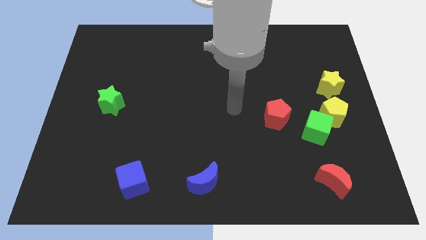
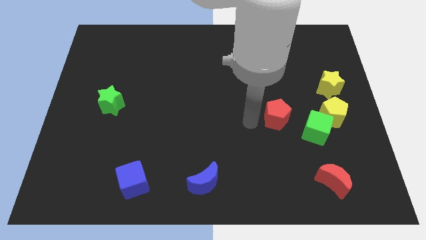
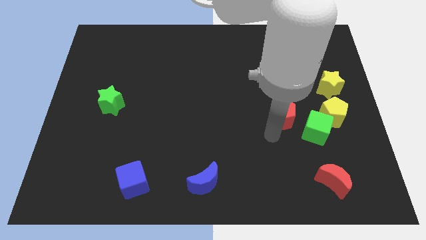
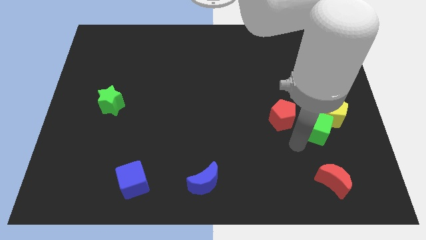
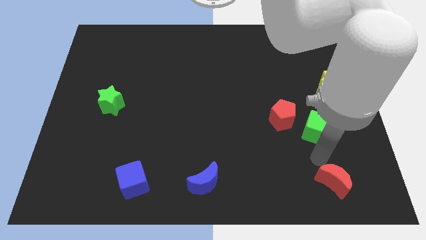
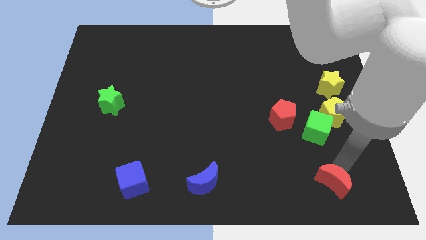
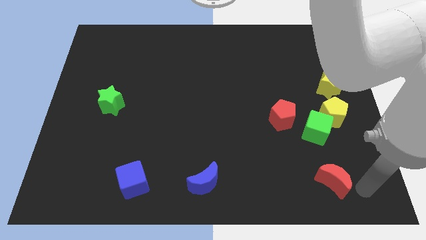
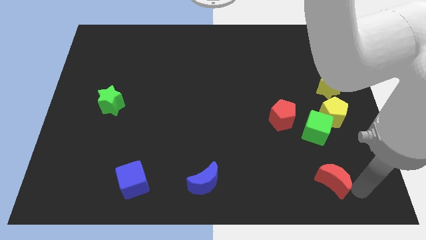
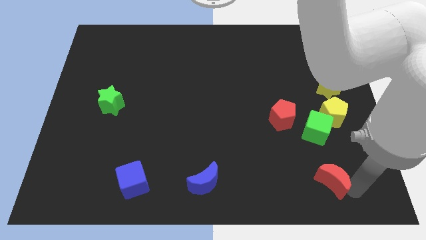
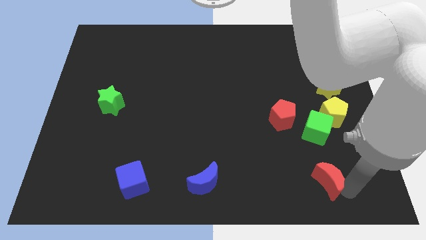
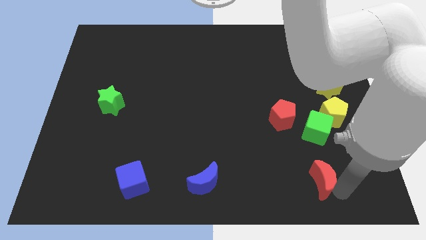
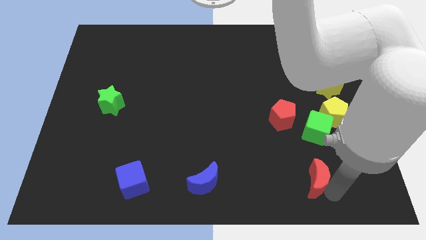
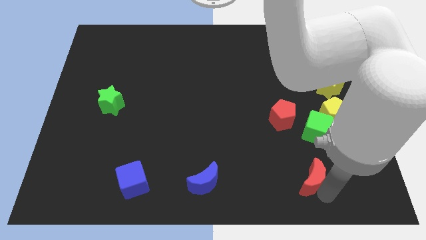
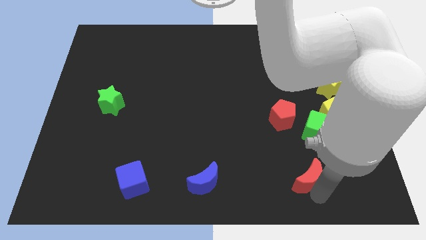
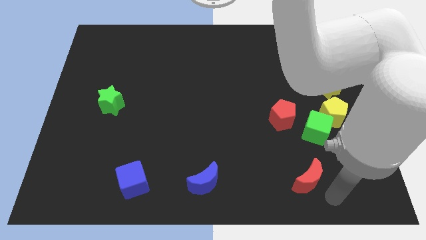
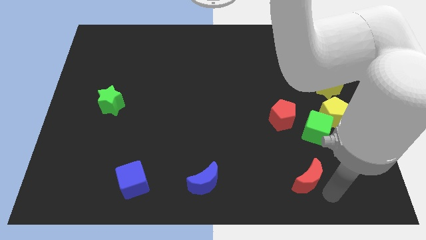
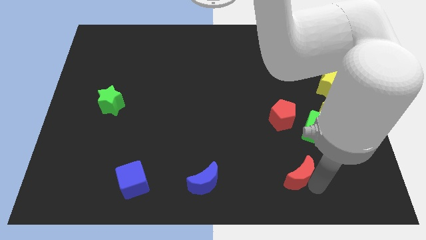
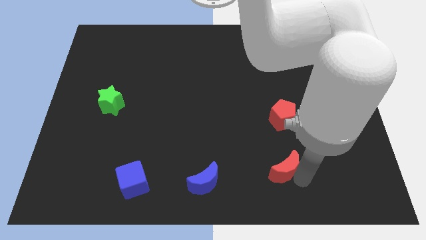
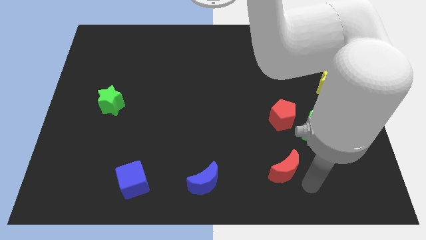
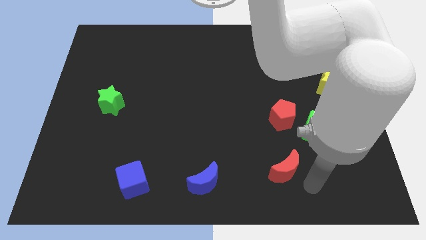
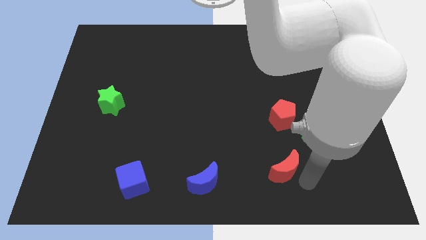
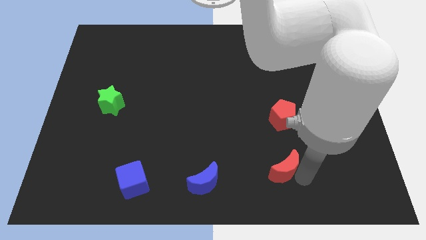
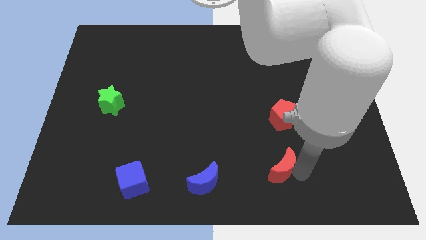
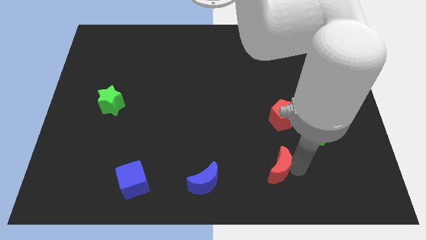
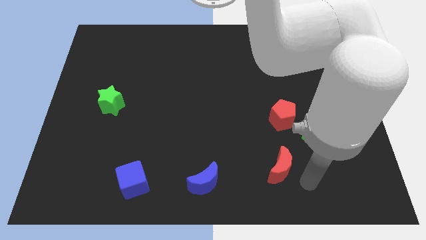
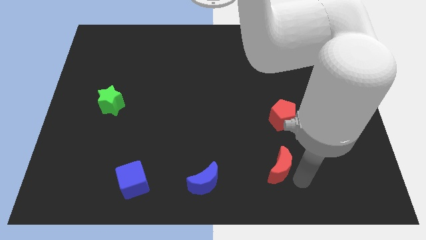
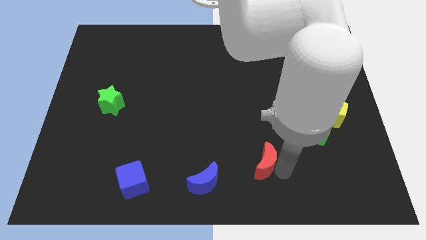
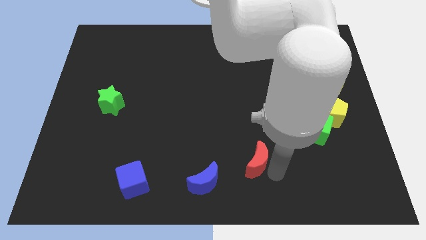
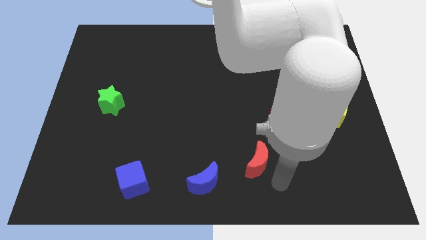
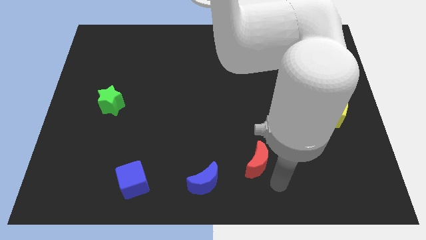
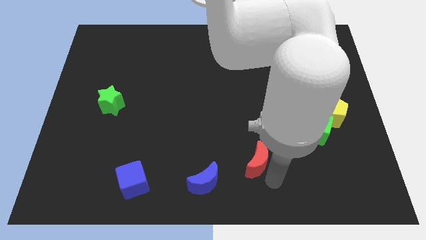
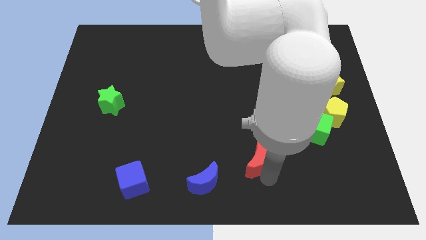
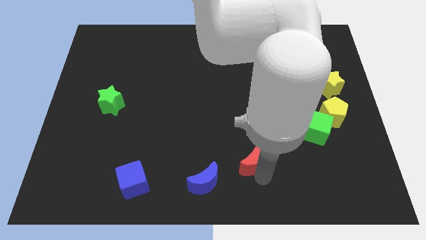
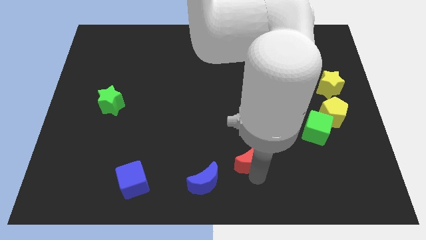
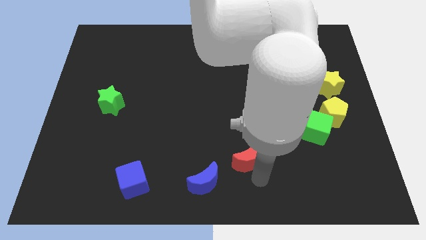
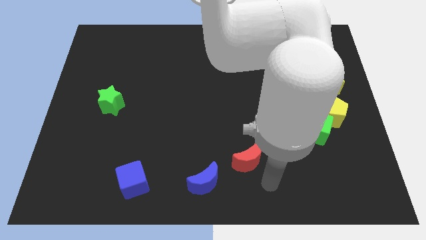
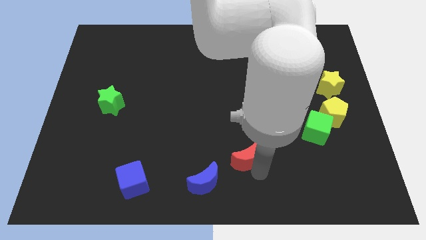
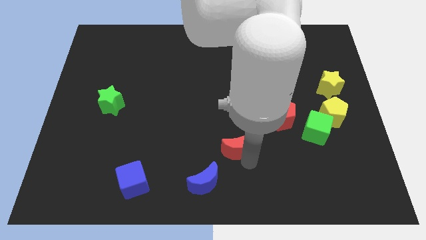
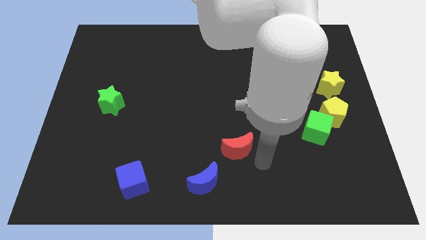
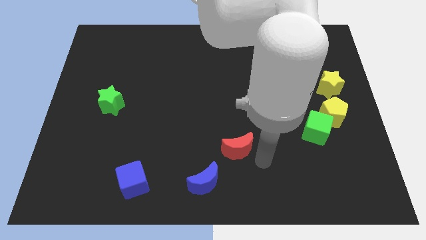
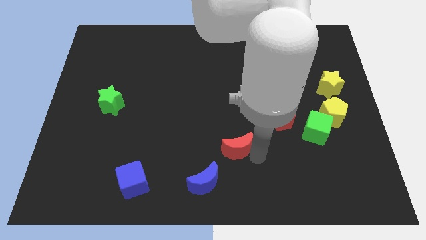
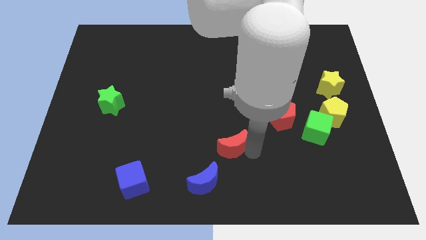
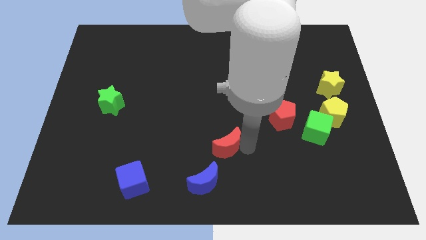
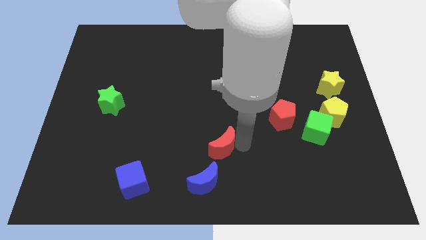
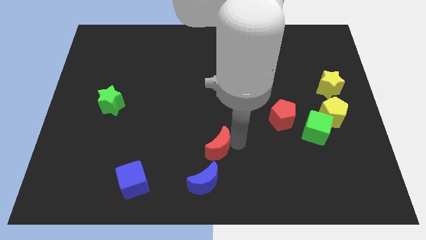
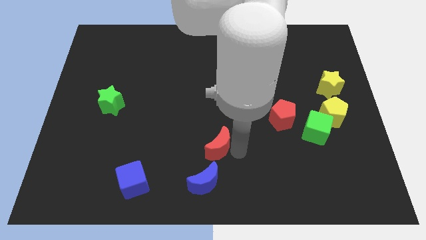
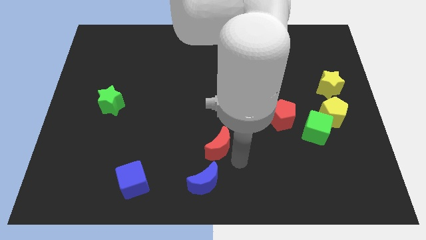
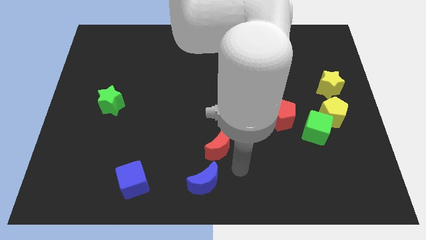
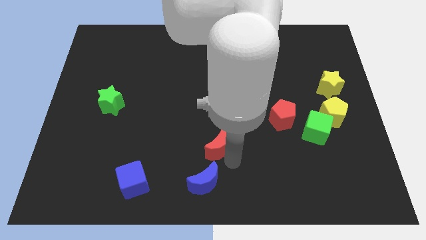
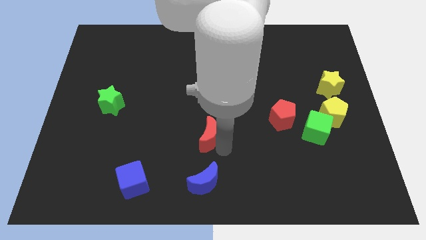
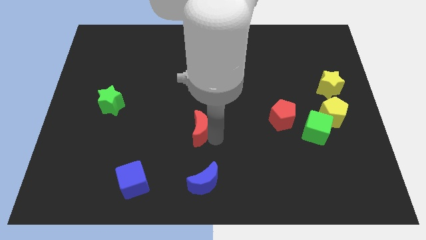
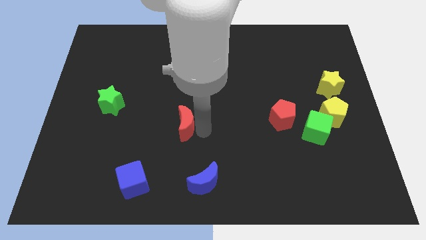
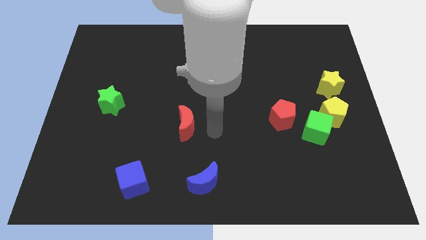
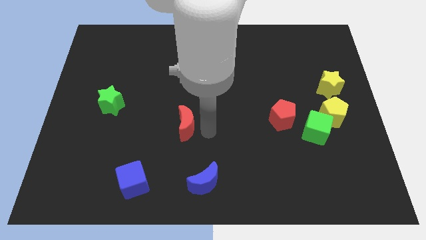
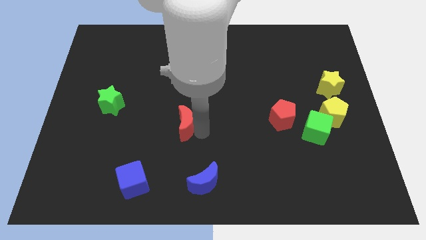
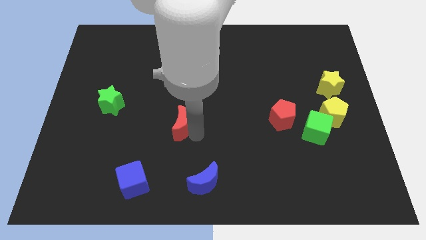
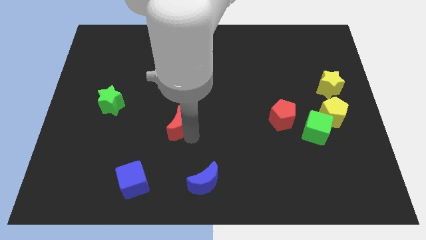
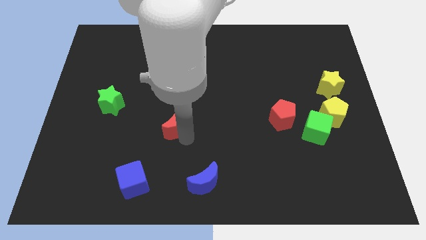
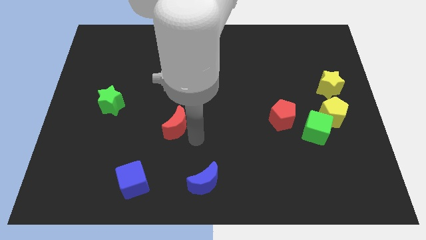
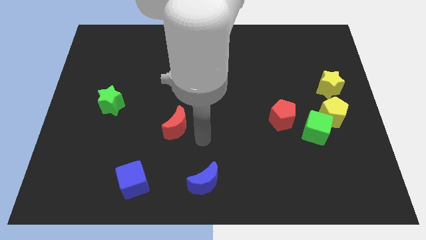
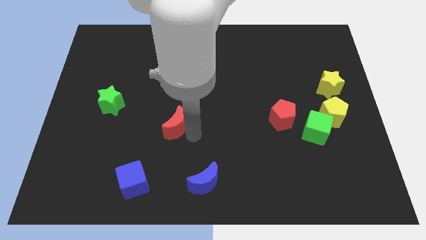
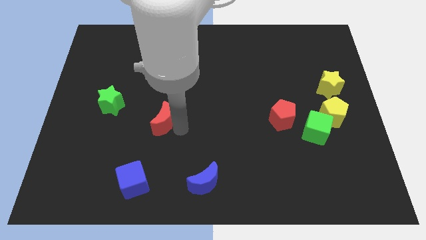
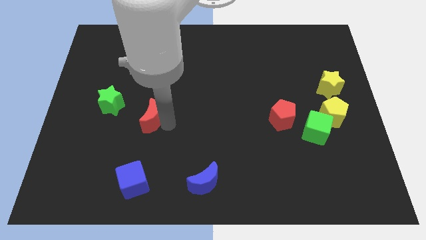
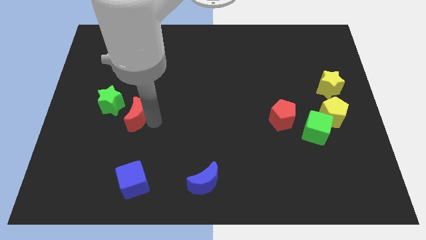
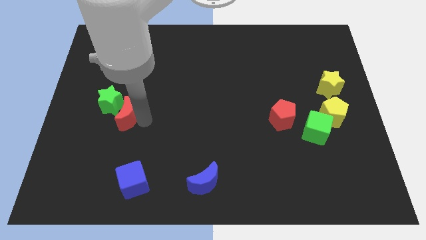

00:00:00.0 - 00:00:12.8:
slide the red moon towards the green star

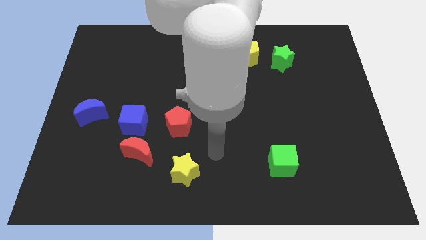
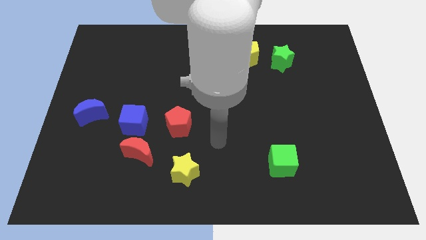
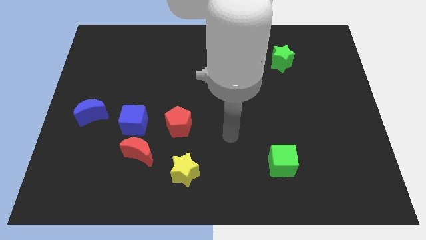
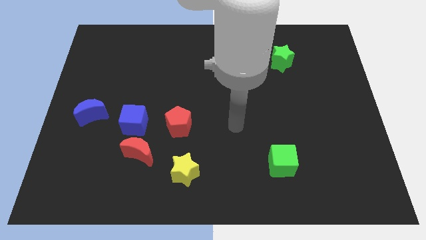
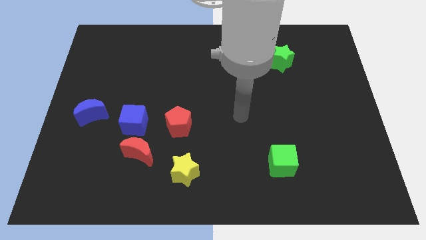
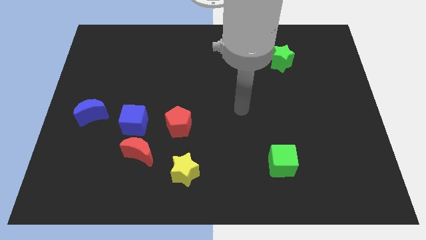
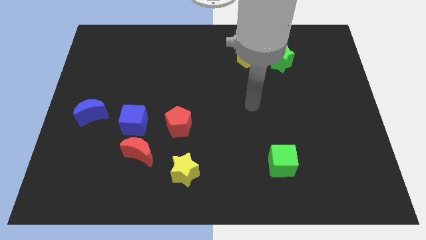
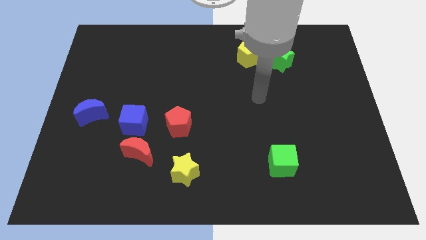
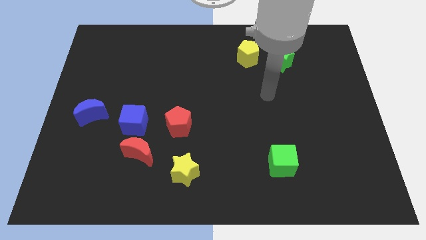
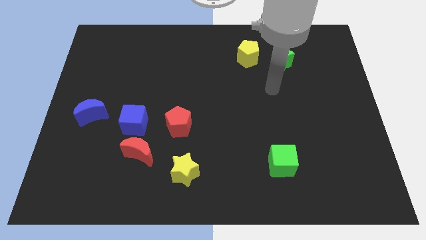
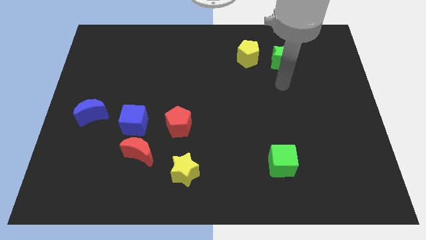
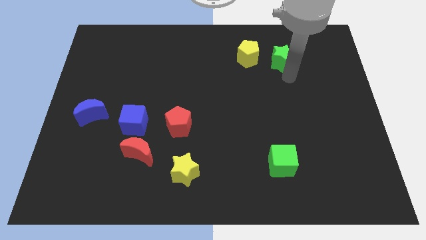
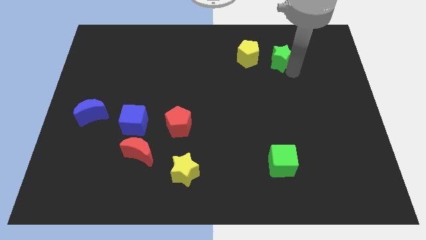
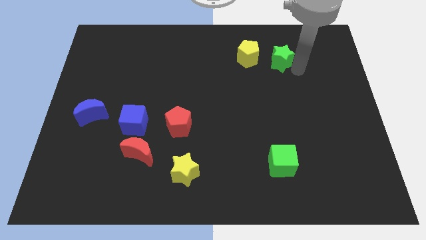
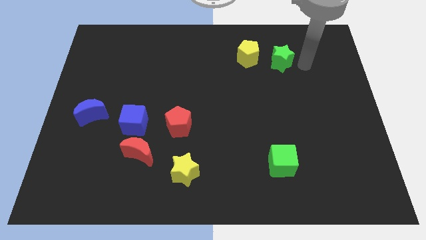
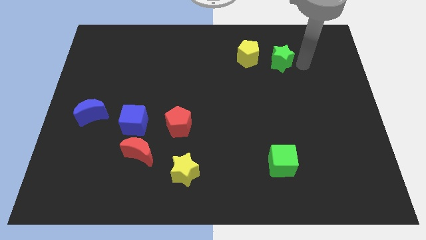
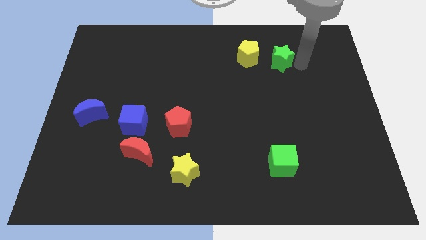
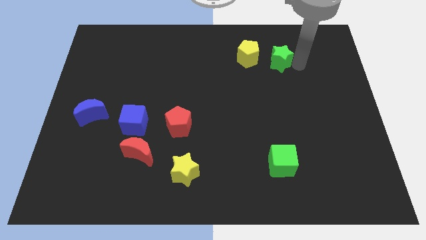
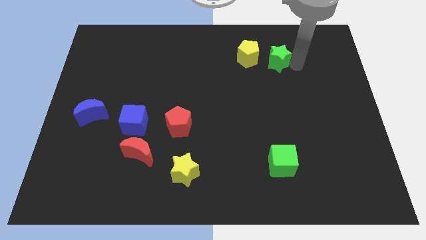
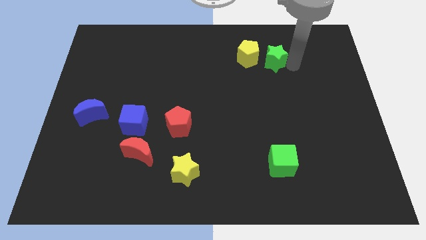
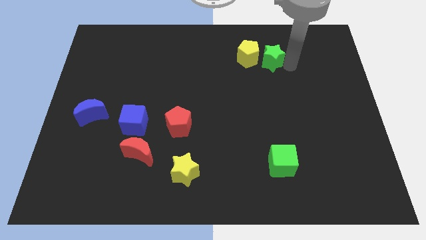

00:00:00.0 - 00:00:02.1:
put the green star next to the yellow pentagon
